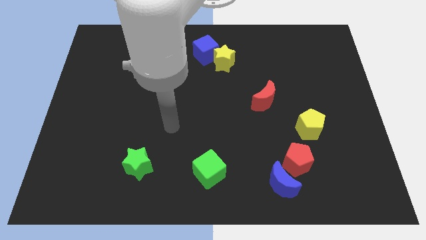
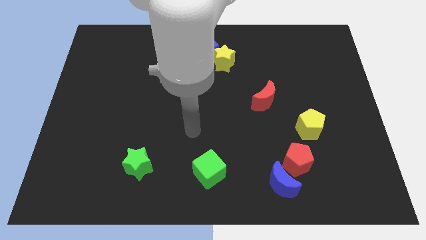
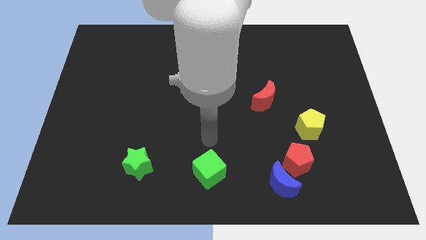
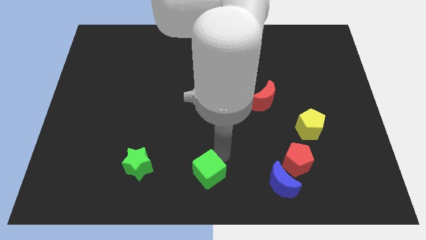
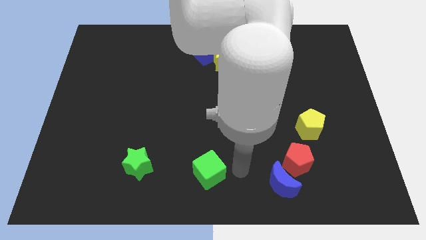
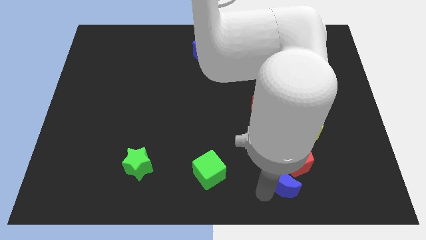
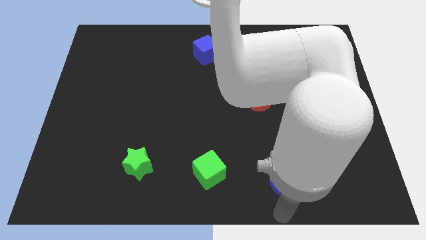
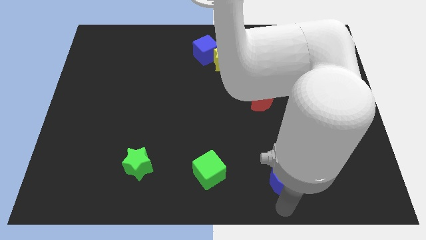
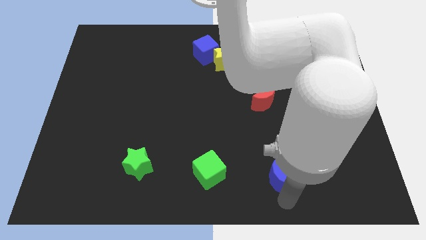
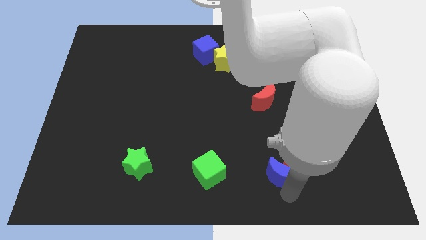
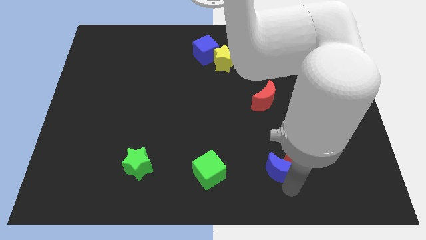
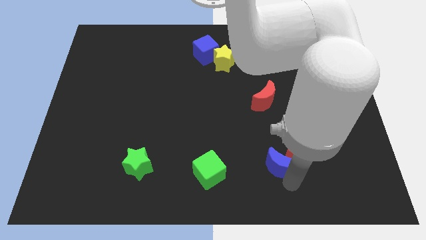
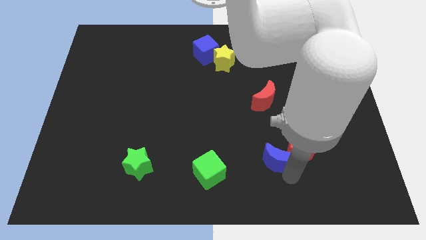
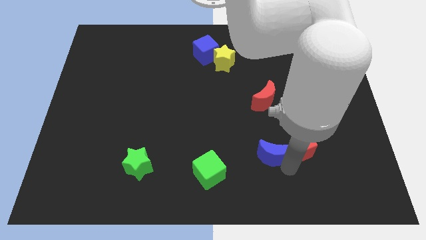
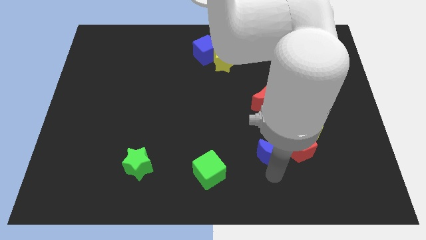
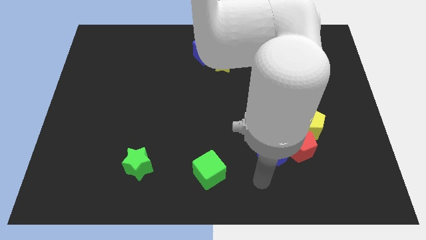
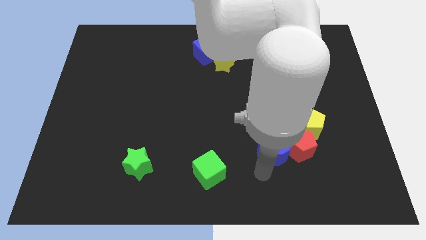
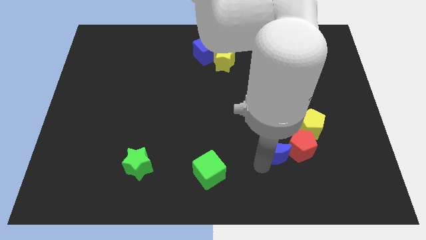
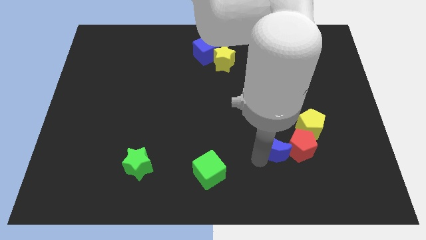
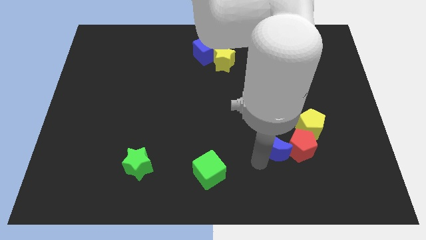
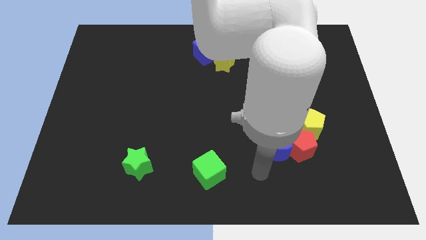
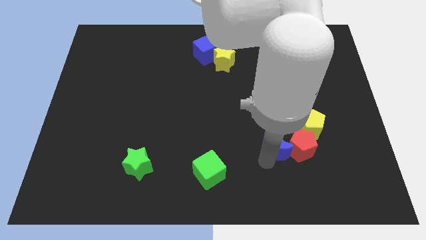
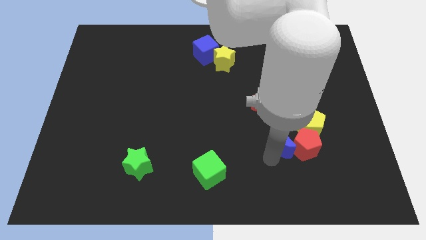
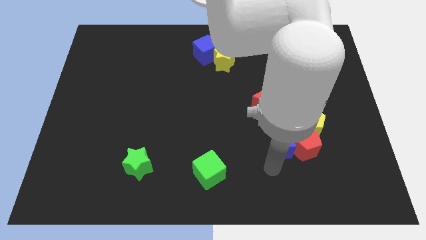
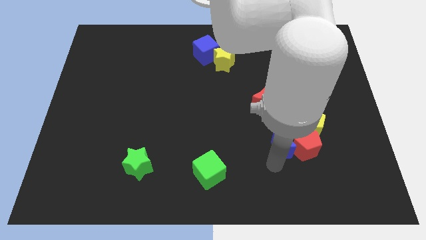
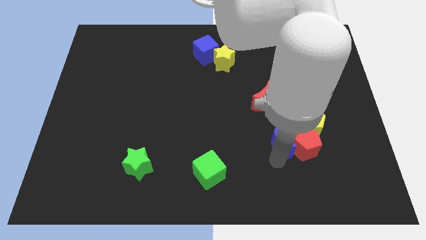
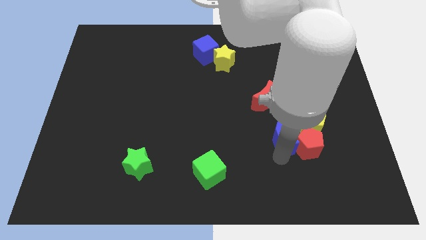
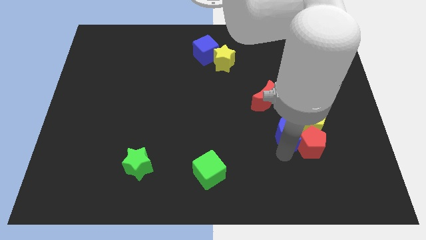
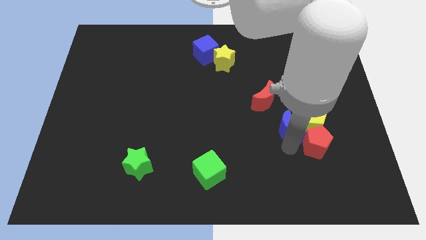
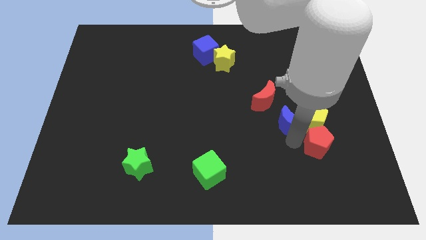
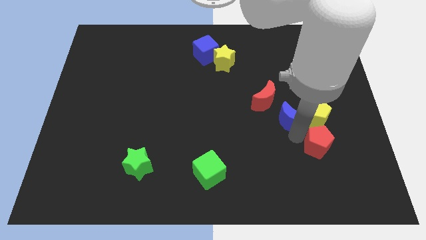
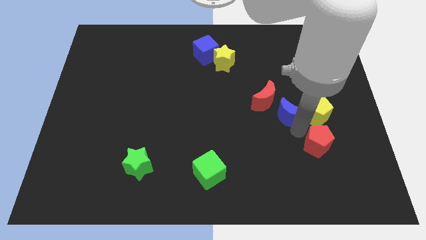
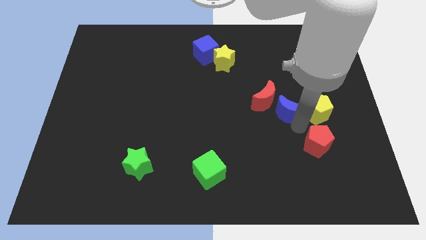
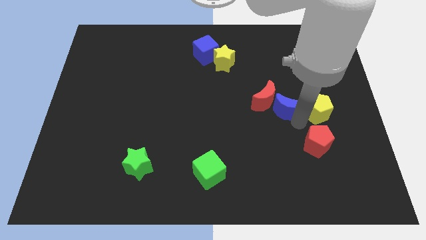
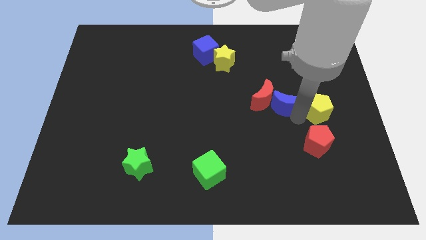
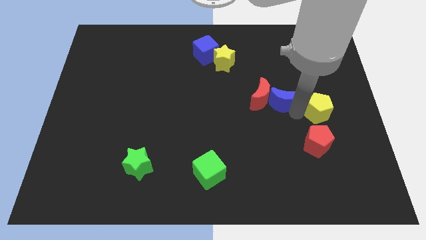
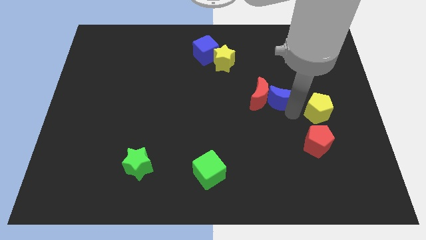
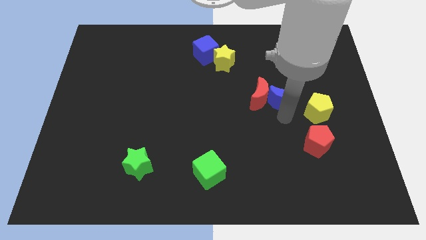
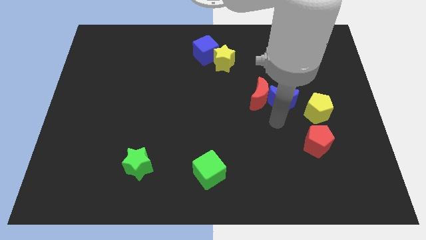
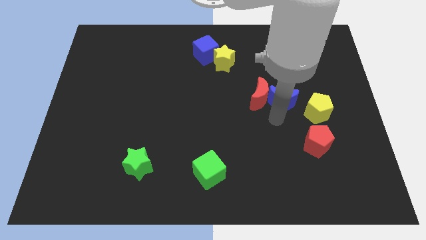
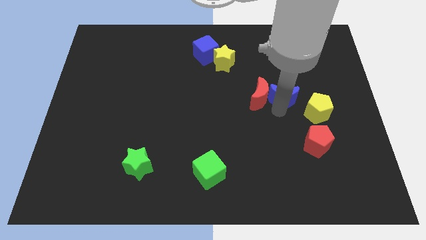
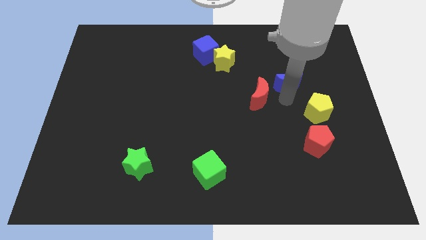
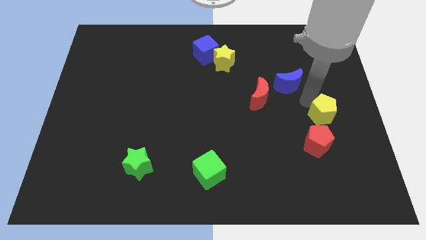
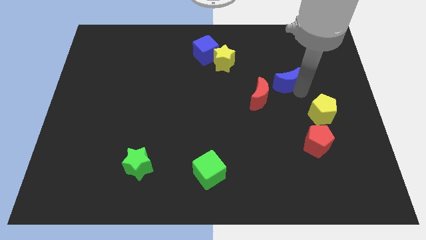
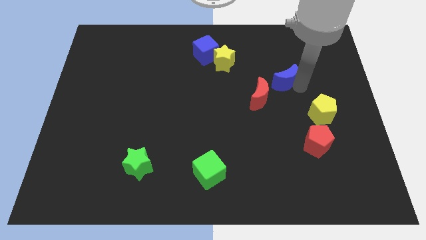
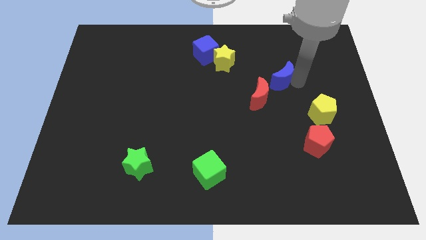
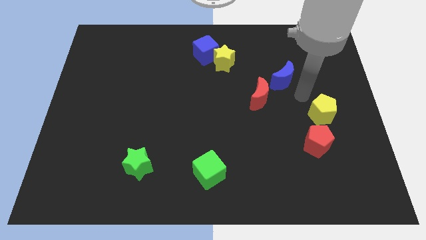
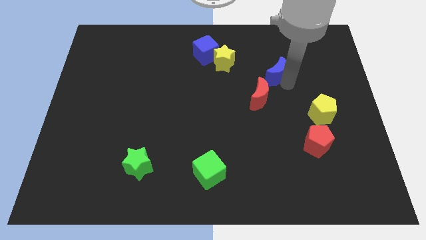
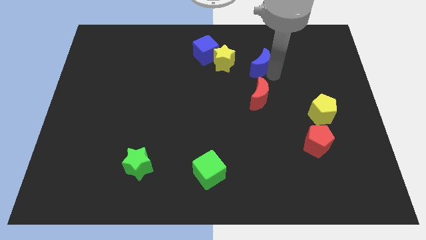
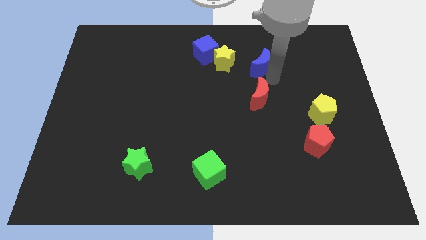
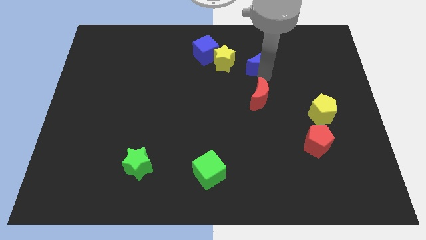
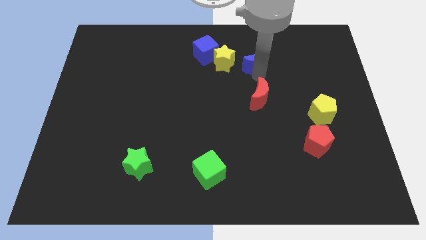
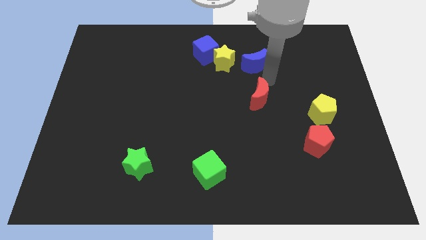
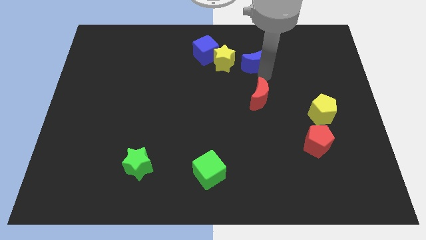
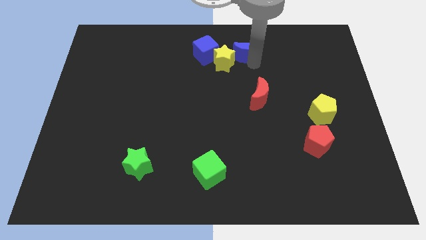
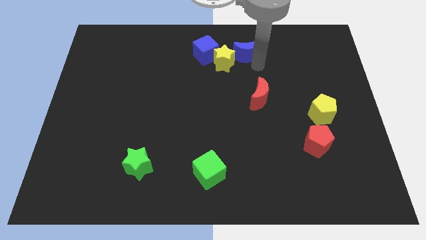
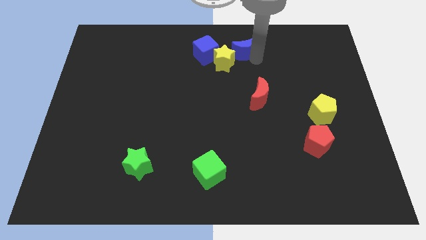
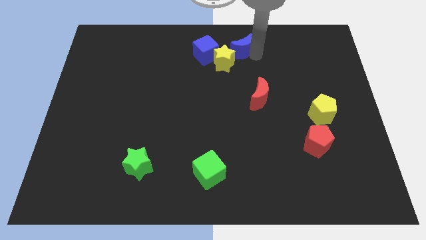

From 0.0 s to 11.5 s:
slide the blue moon to the top side

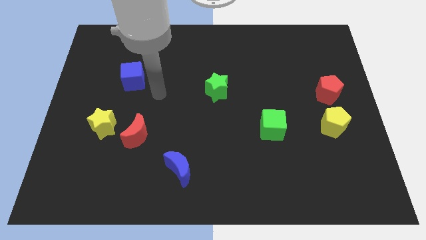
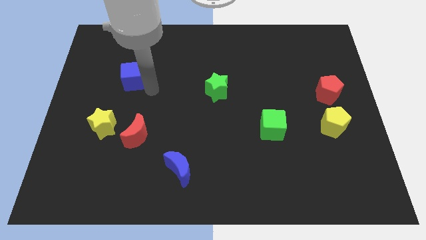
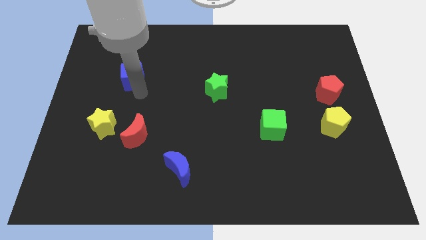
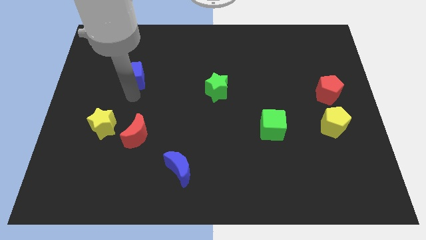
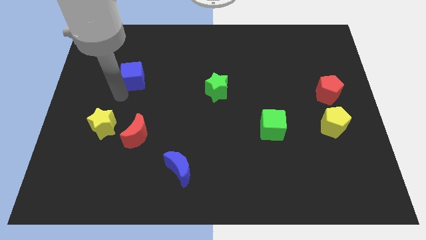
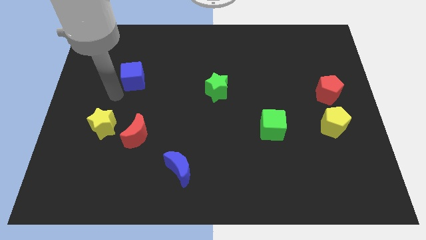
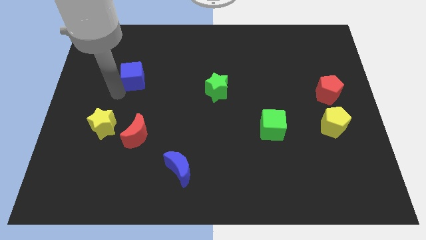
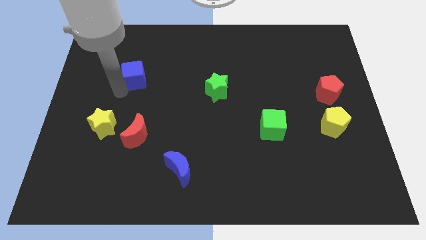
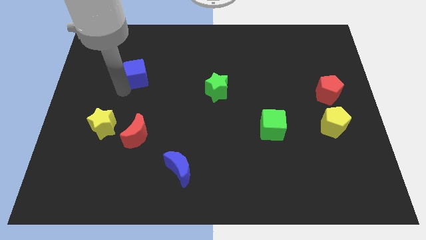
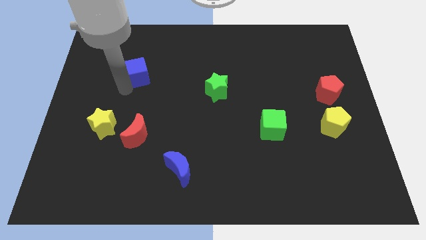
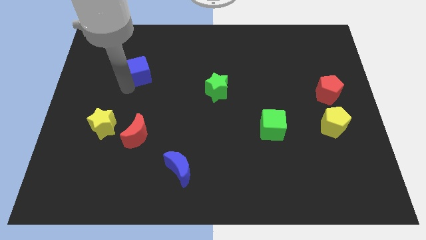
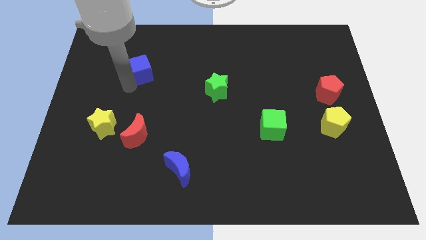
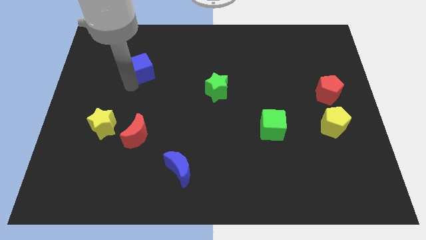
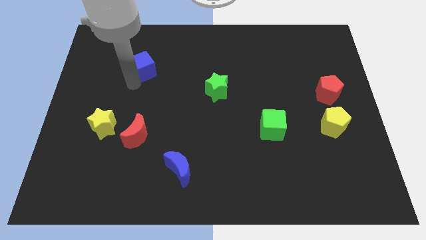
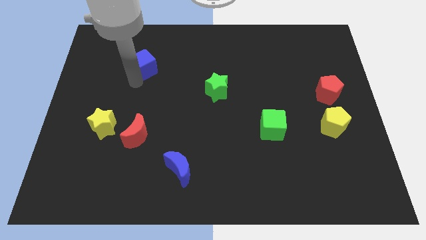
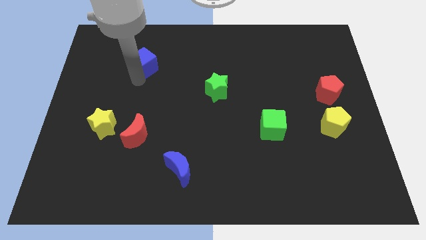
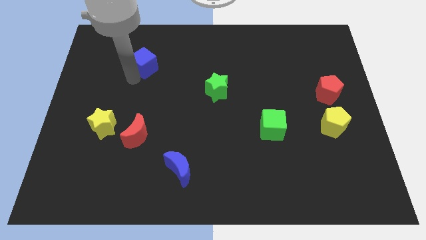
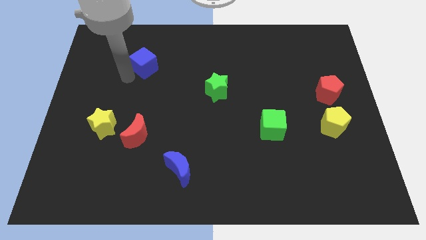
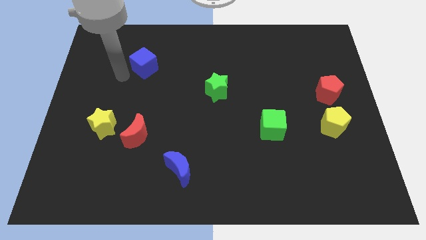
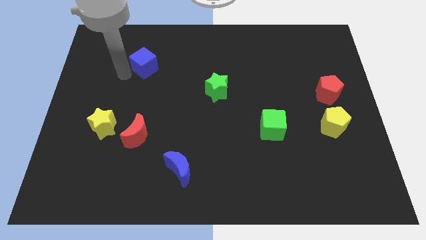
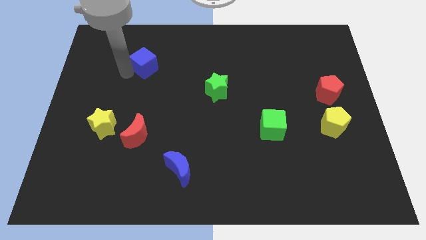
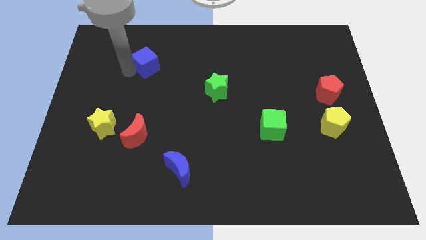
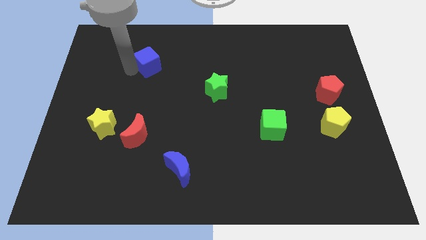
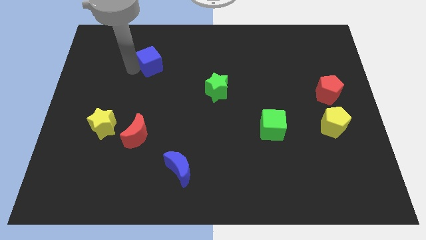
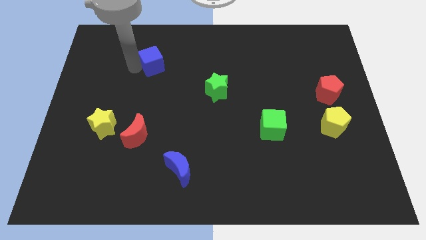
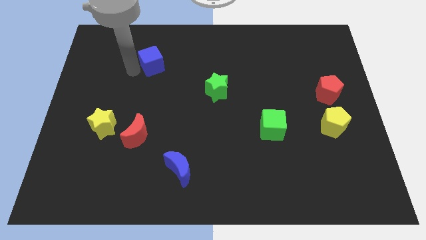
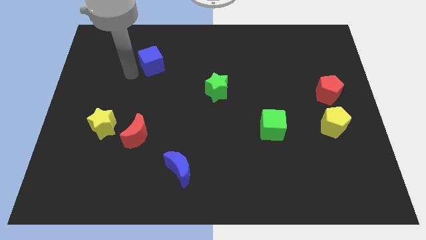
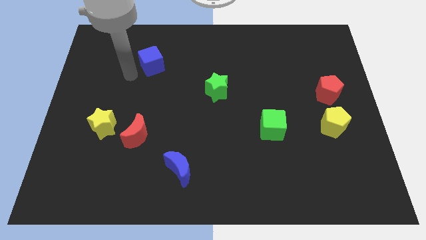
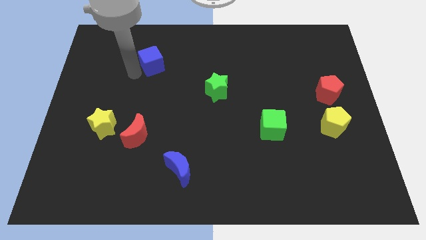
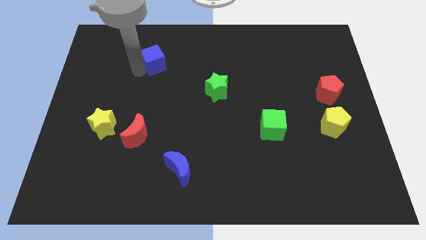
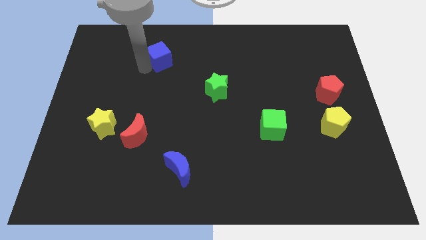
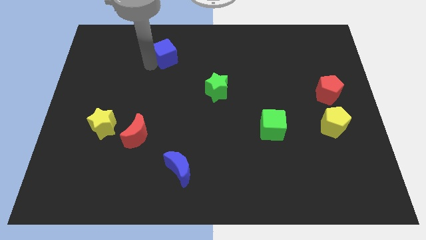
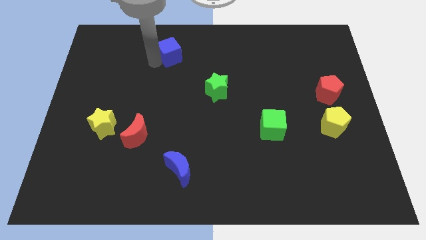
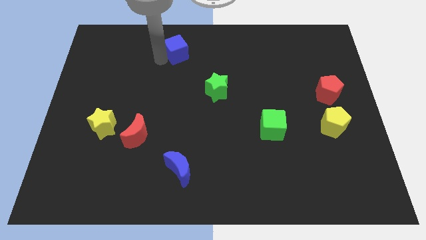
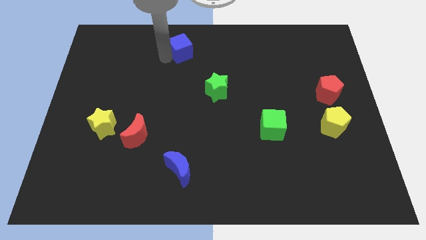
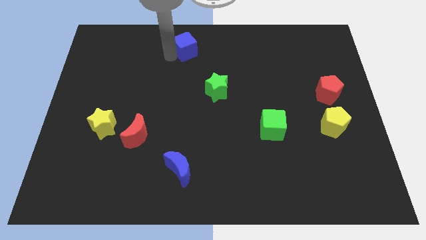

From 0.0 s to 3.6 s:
slide the blue cube to the top
